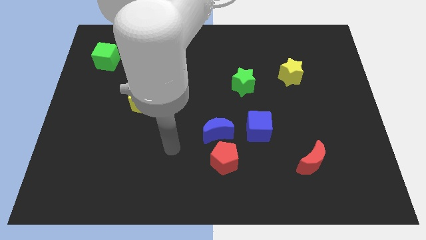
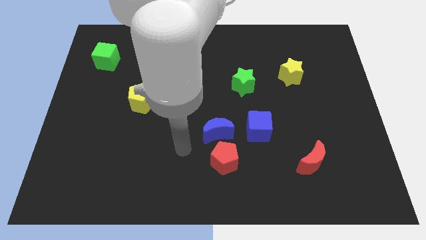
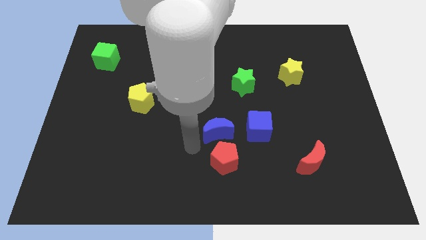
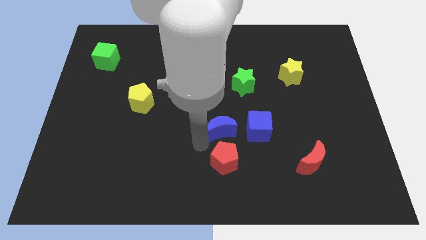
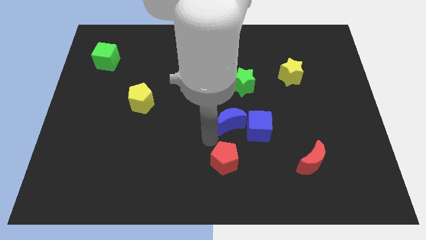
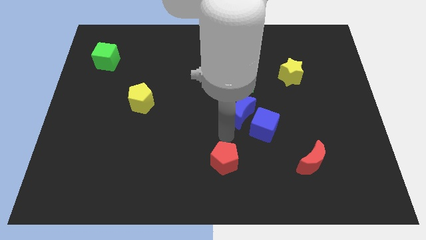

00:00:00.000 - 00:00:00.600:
move the red pentagon away from the blue moon

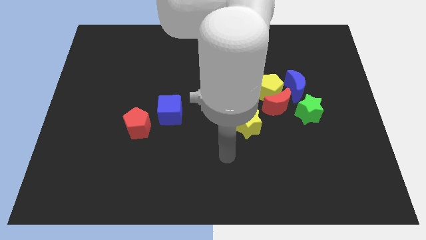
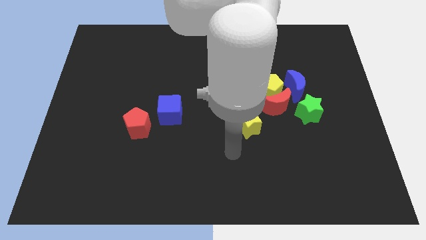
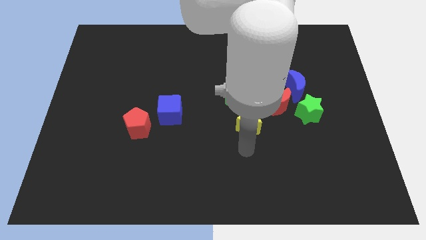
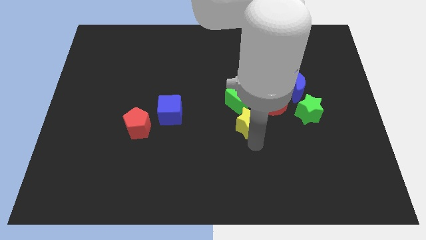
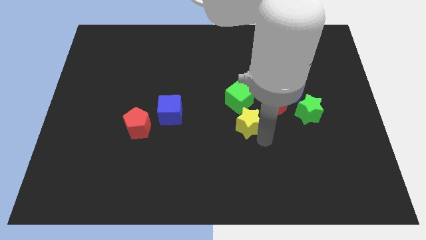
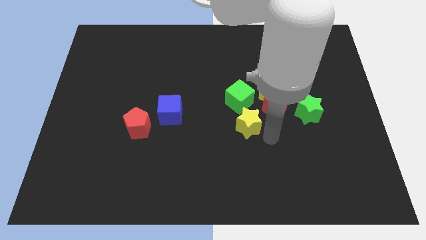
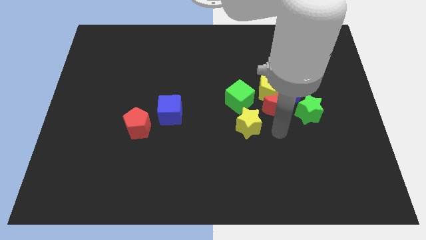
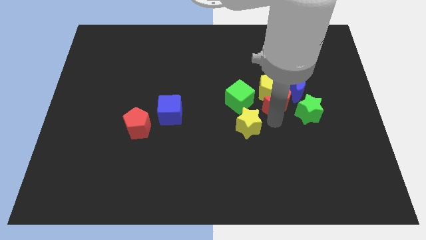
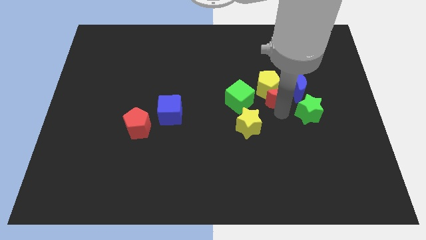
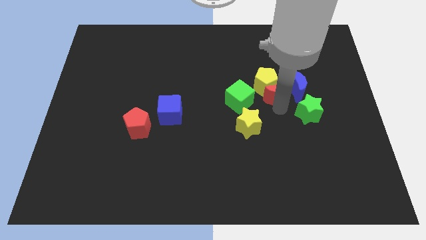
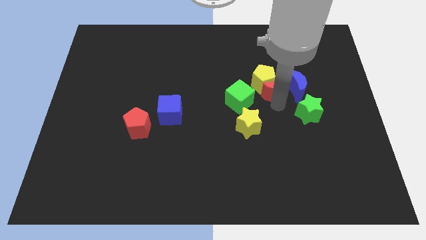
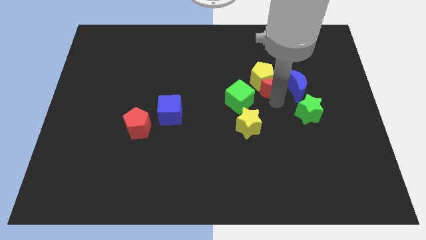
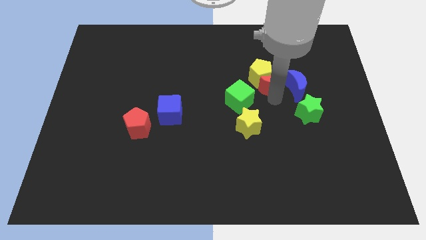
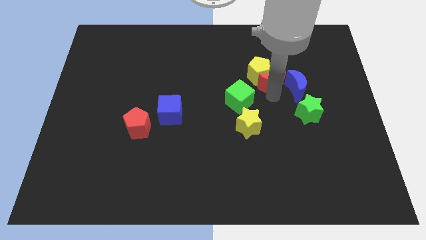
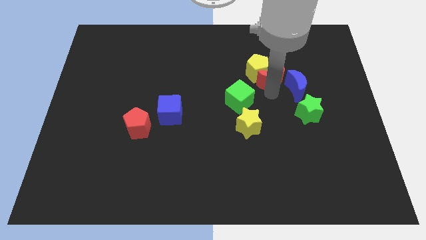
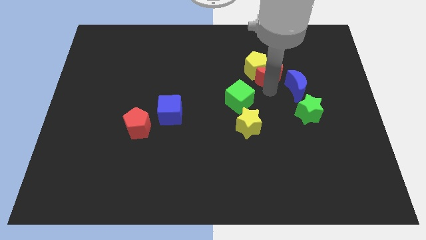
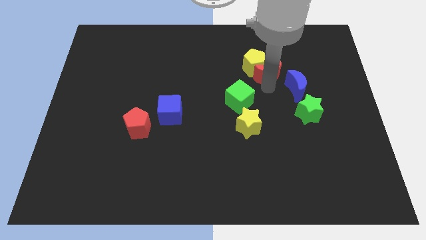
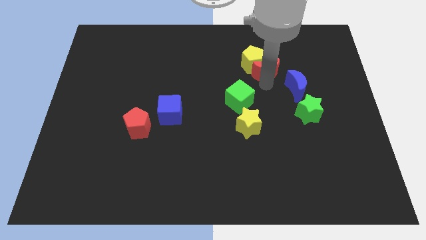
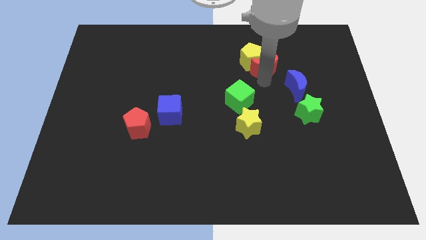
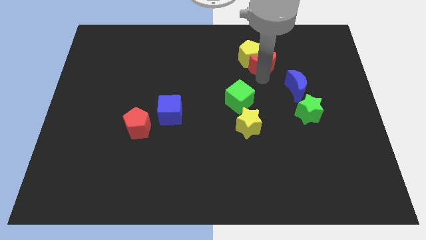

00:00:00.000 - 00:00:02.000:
move the yellow pentagon away from the group

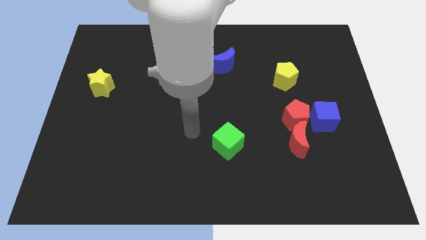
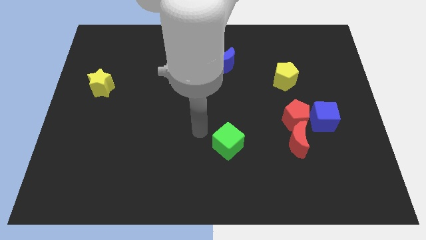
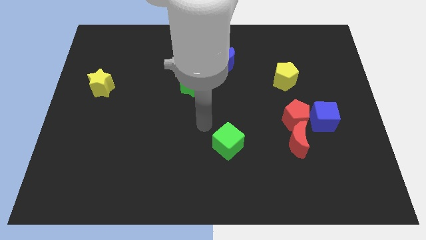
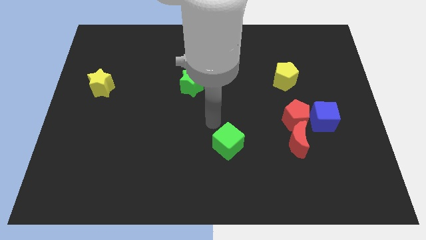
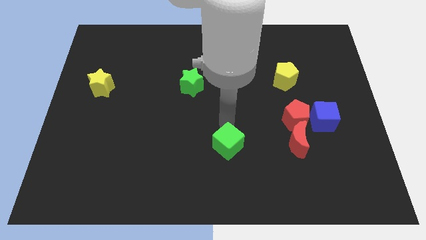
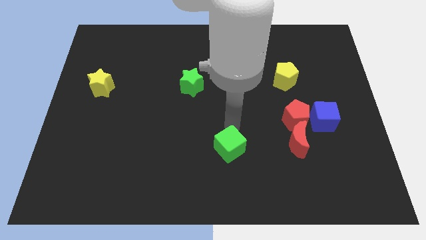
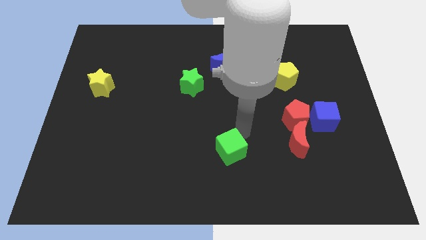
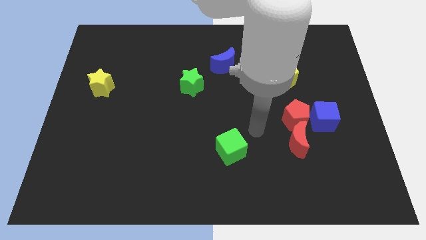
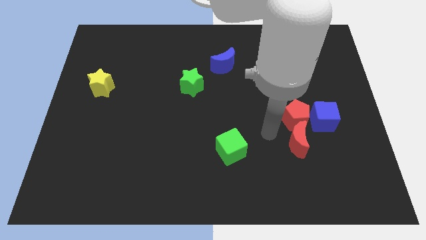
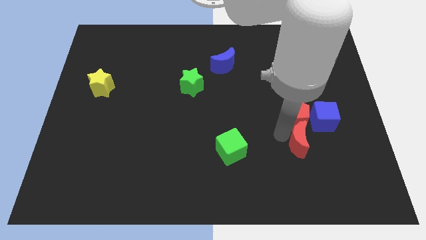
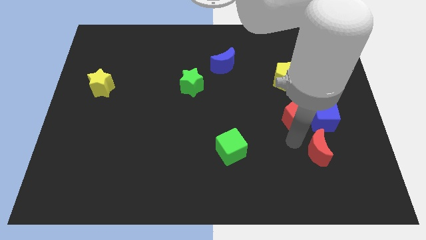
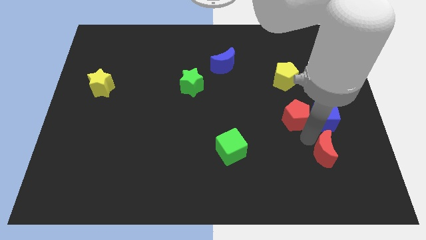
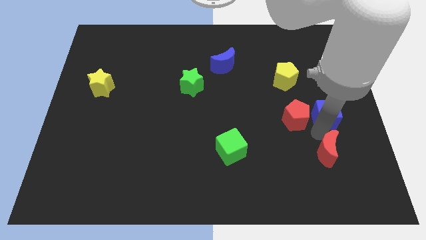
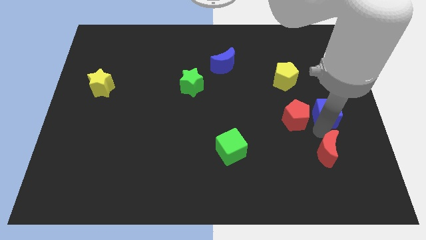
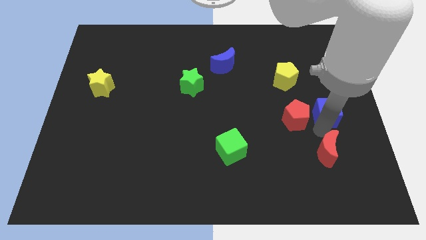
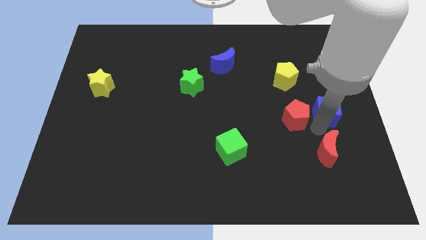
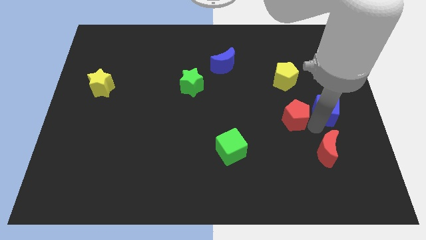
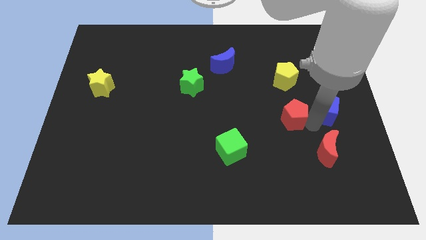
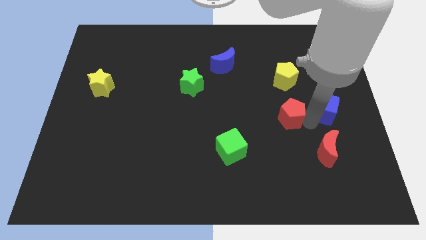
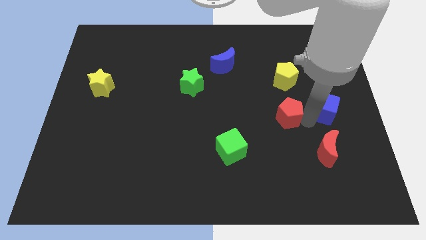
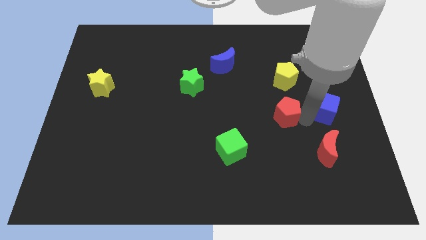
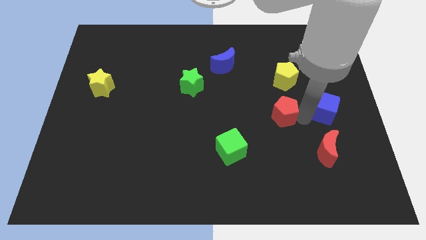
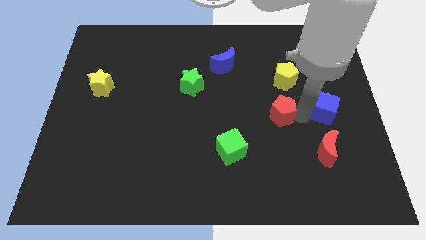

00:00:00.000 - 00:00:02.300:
move the red pentagon away from the red moon and blue cube

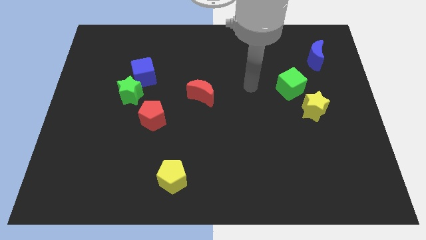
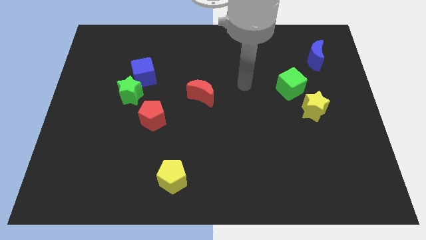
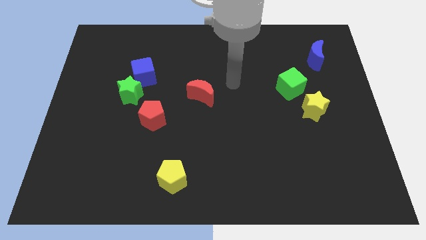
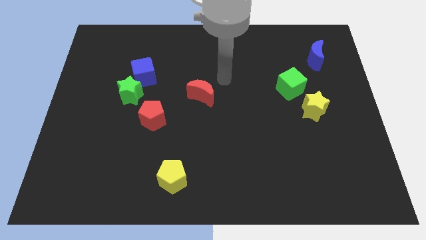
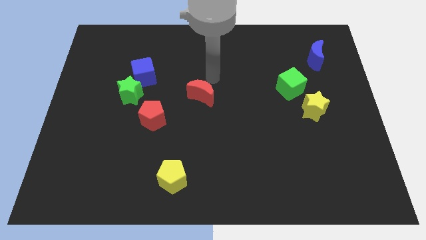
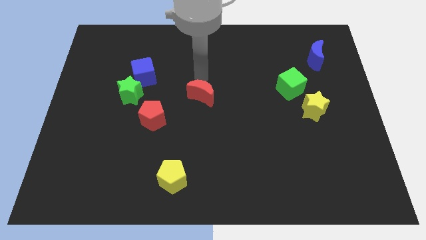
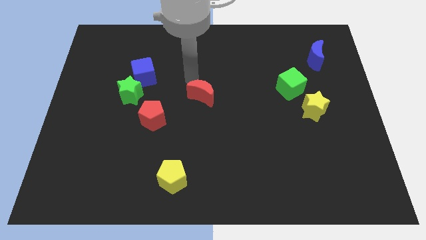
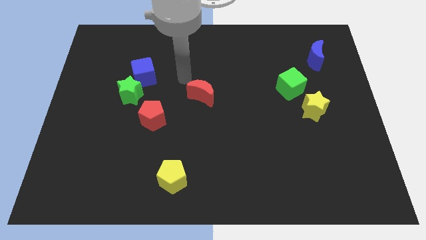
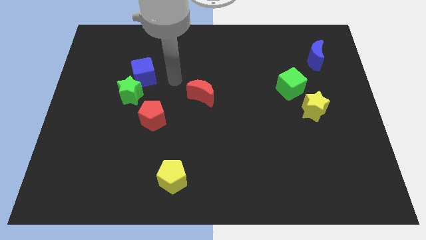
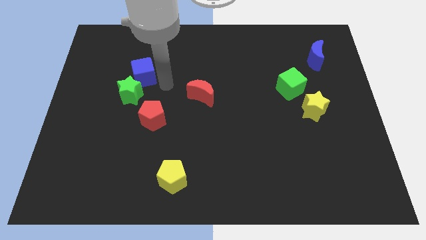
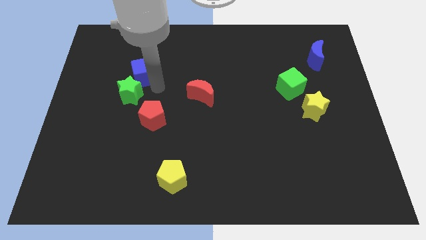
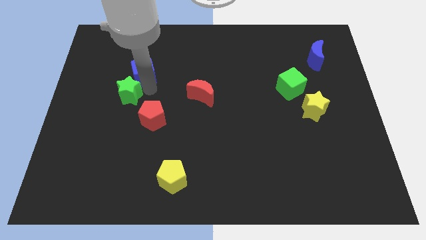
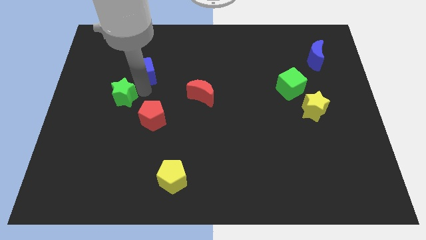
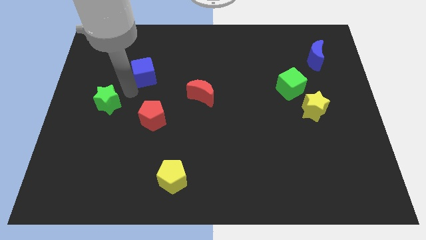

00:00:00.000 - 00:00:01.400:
separate the blue cube from the green star

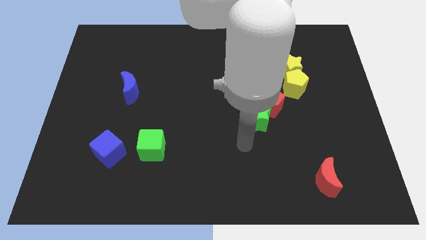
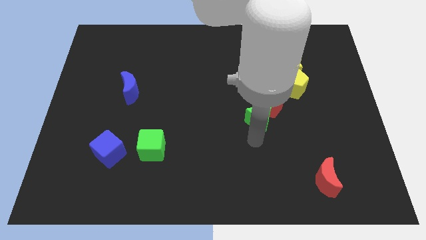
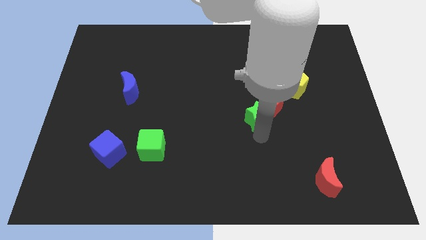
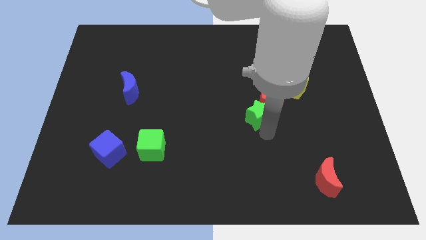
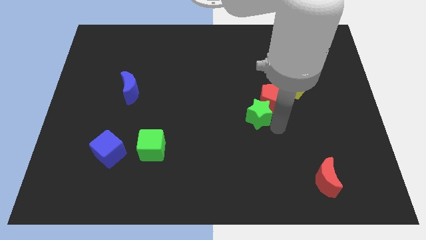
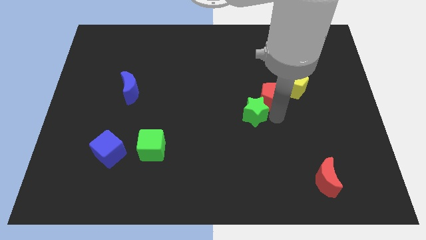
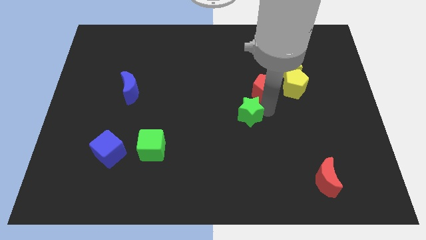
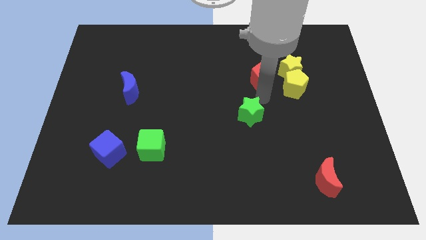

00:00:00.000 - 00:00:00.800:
separate the green star from the red pentagon

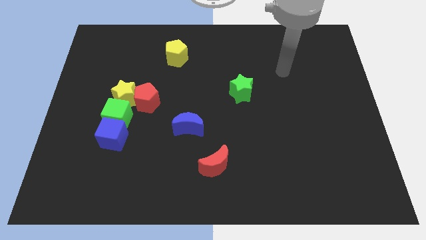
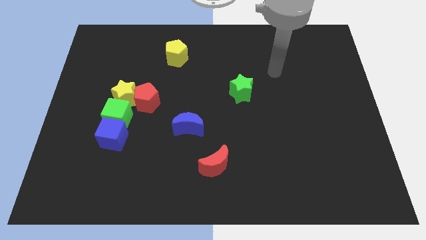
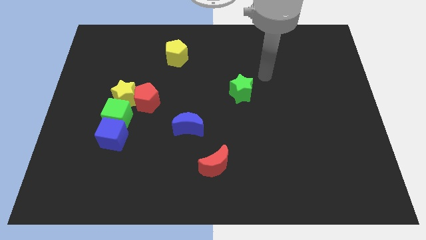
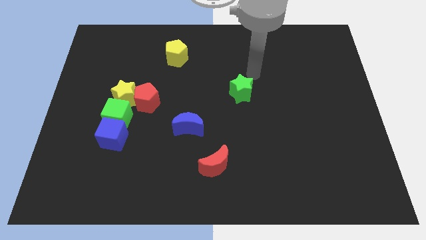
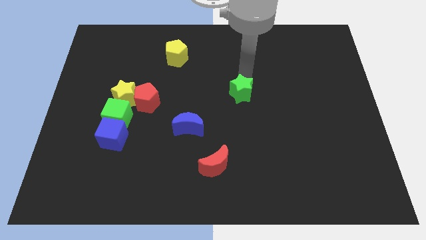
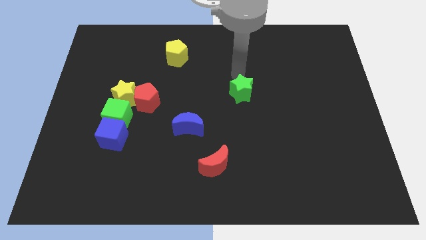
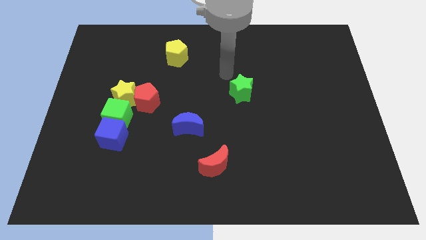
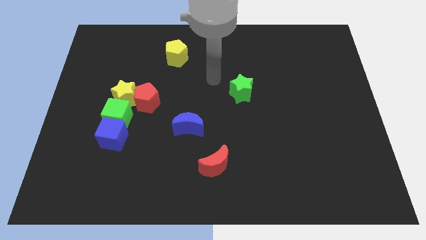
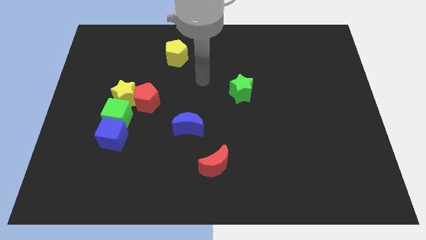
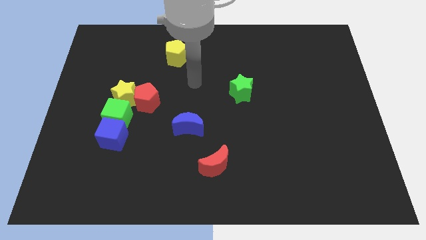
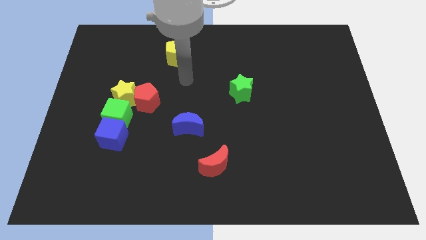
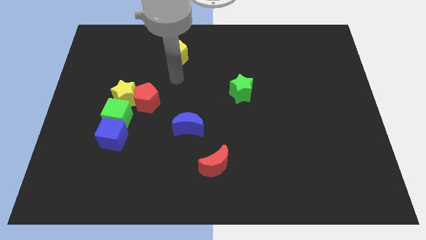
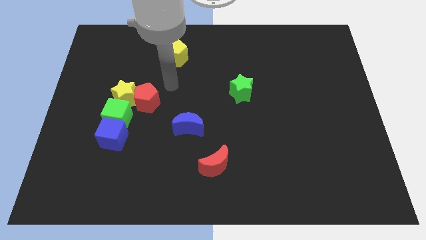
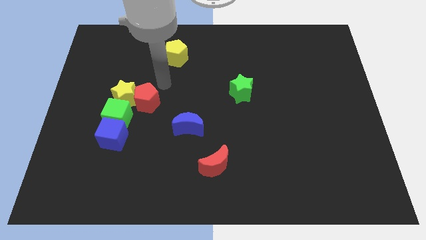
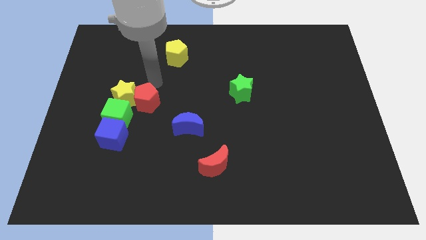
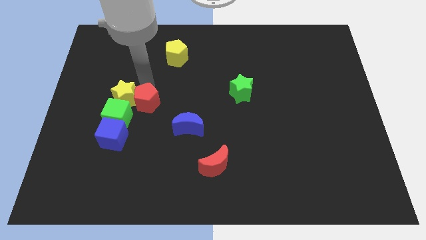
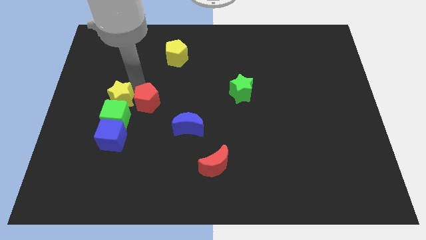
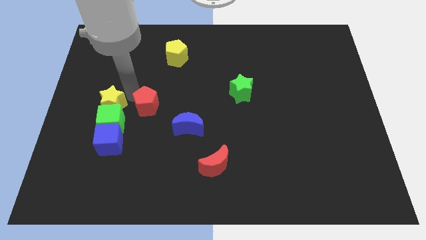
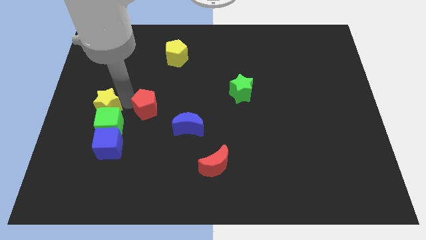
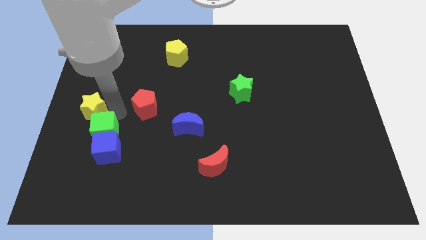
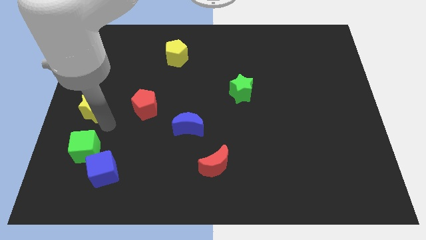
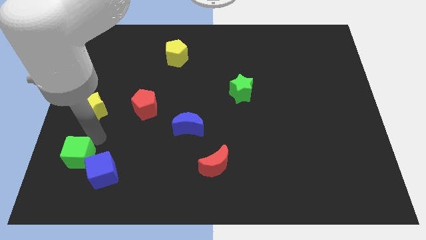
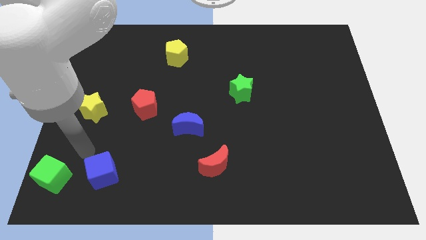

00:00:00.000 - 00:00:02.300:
pull the blue cube apart from the green cube
